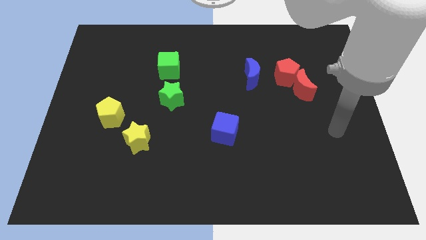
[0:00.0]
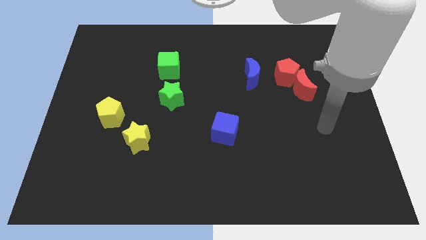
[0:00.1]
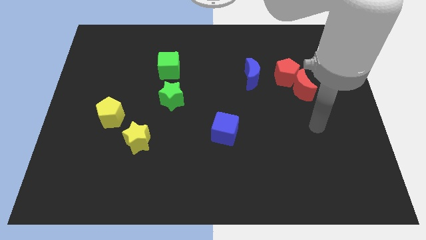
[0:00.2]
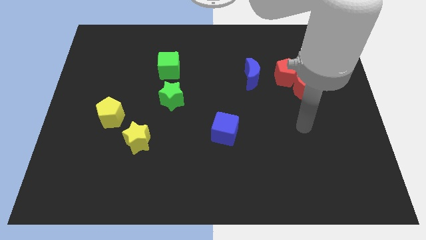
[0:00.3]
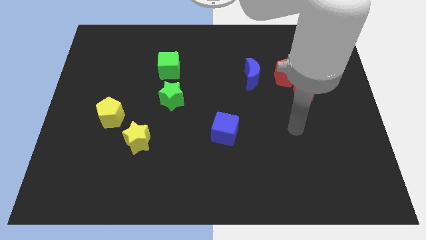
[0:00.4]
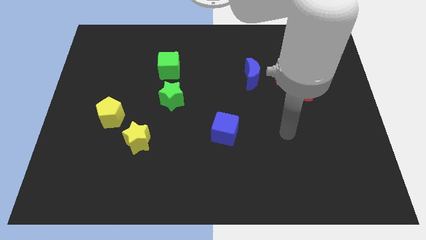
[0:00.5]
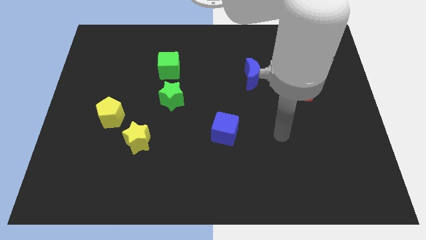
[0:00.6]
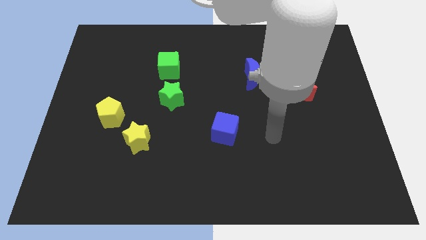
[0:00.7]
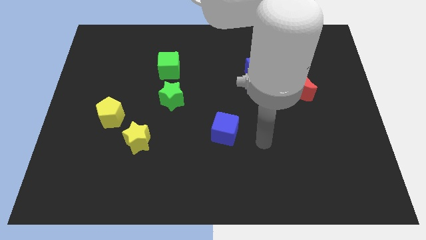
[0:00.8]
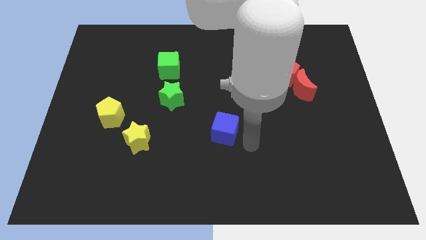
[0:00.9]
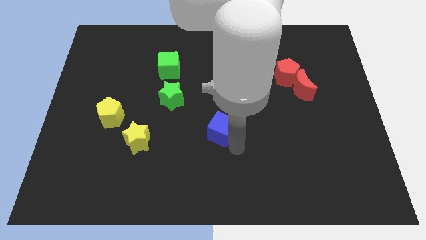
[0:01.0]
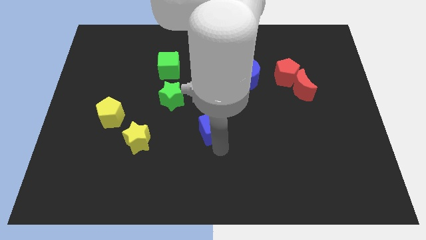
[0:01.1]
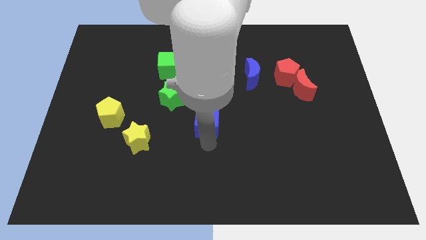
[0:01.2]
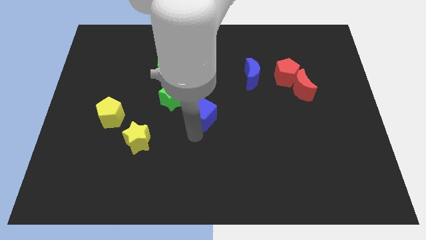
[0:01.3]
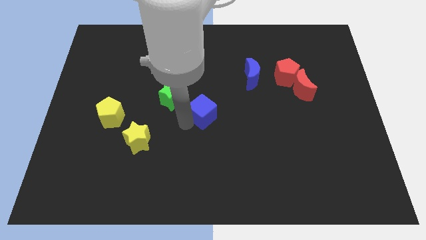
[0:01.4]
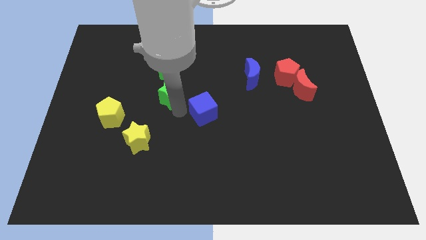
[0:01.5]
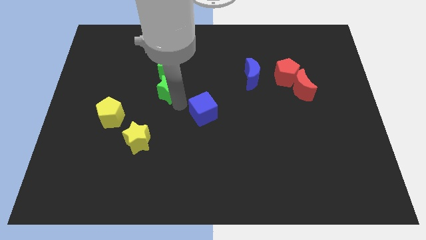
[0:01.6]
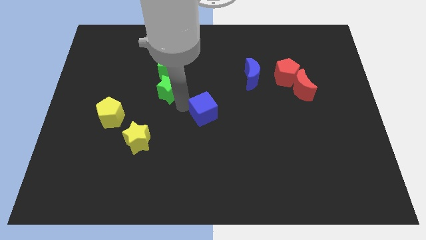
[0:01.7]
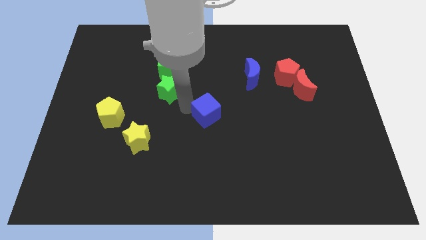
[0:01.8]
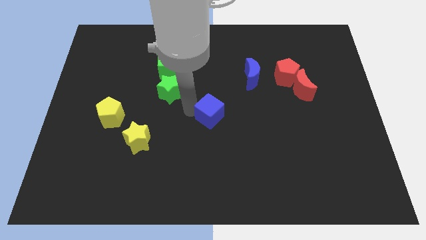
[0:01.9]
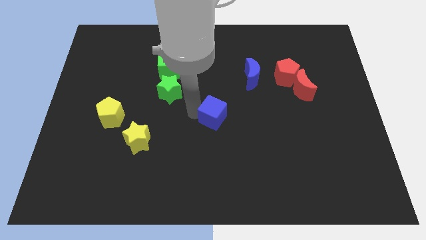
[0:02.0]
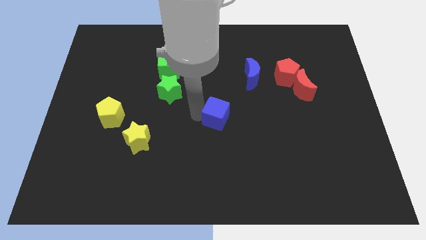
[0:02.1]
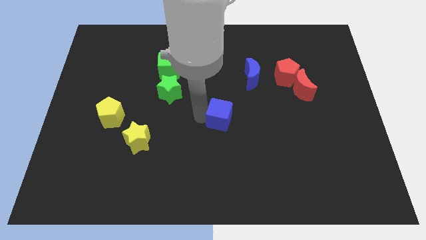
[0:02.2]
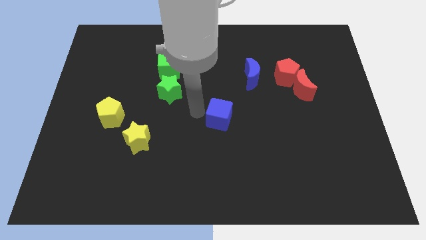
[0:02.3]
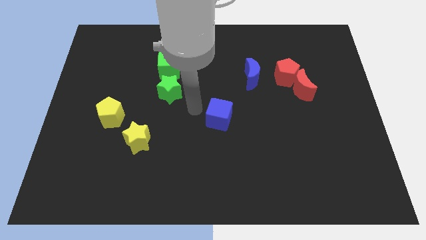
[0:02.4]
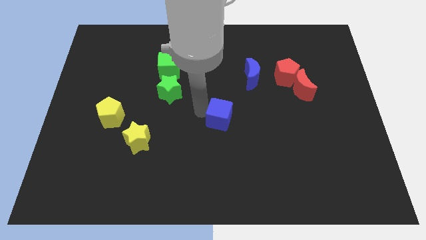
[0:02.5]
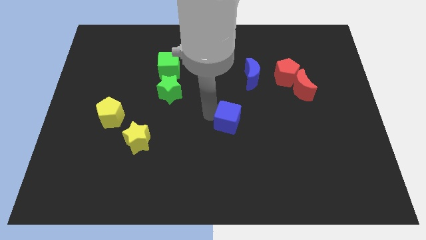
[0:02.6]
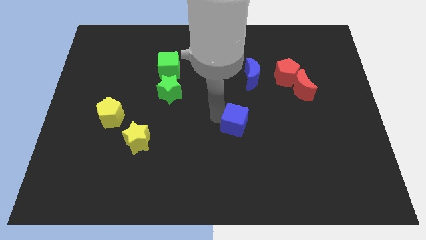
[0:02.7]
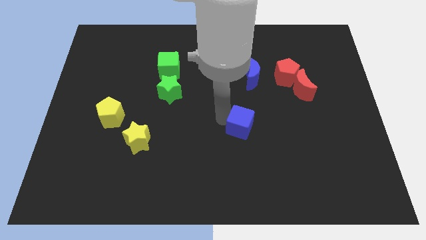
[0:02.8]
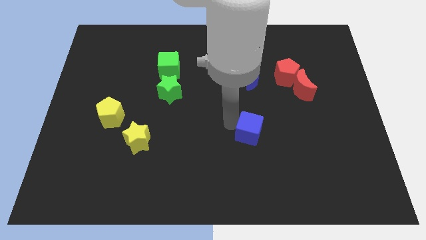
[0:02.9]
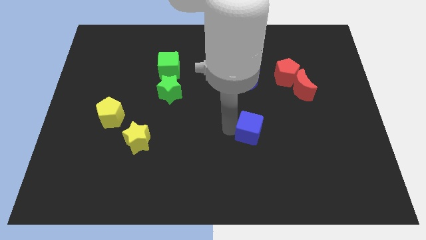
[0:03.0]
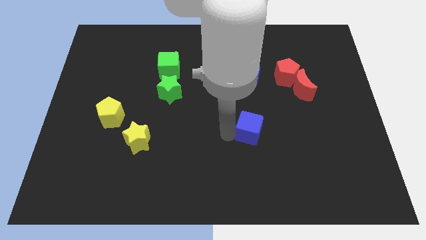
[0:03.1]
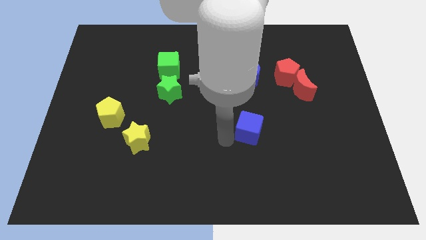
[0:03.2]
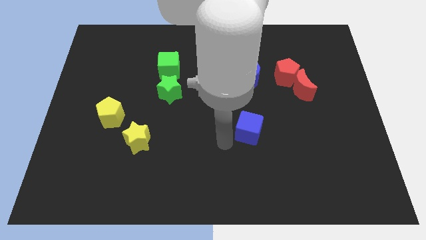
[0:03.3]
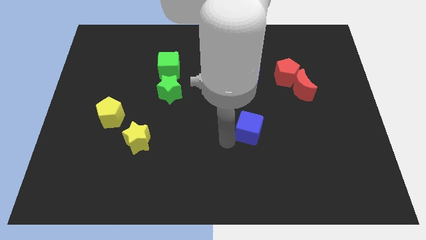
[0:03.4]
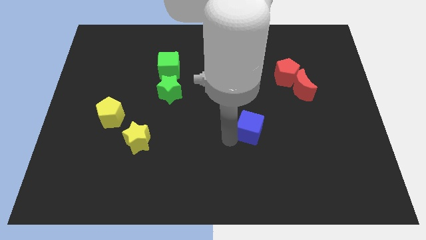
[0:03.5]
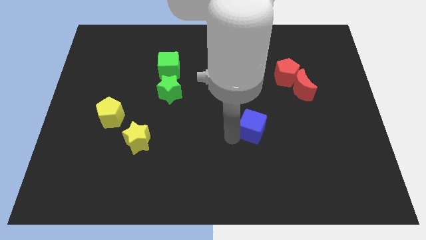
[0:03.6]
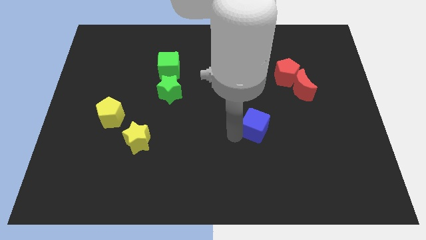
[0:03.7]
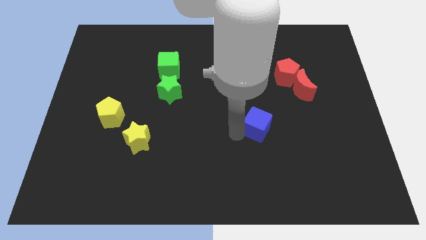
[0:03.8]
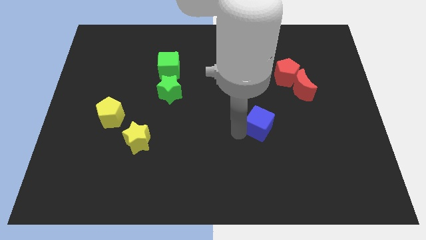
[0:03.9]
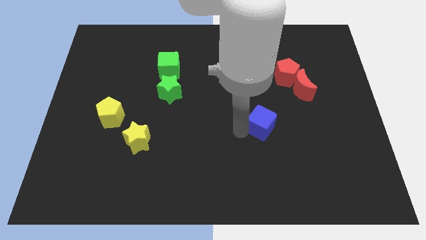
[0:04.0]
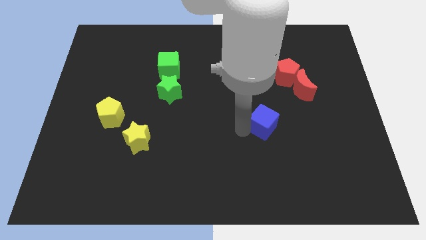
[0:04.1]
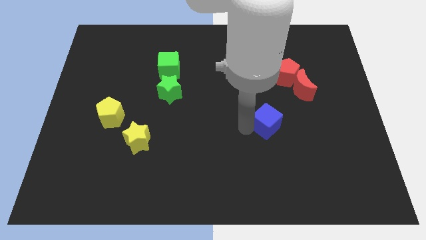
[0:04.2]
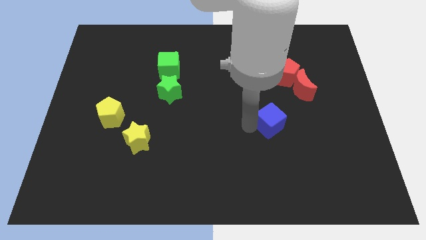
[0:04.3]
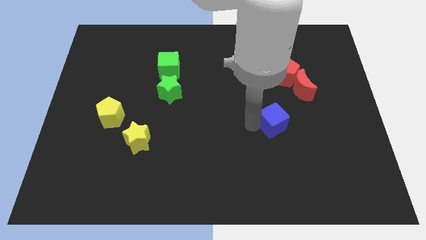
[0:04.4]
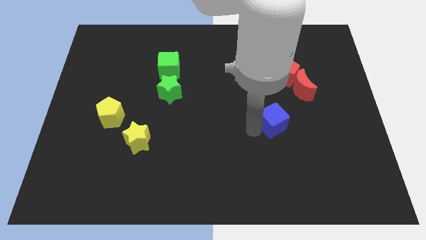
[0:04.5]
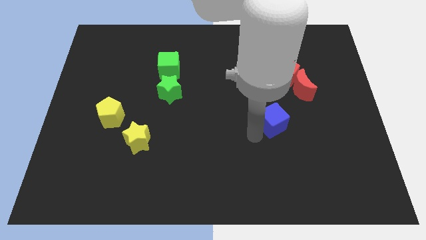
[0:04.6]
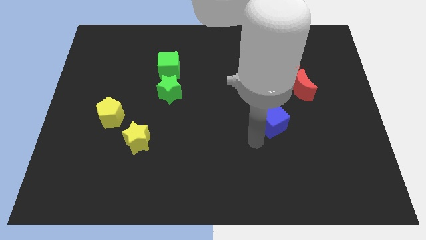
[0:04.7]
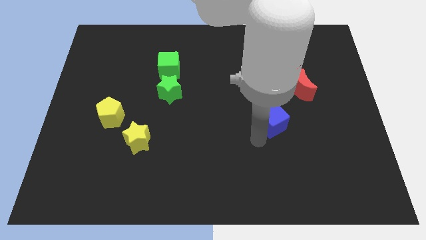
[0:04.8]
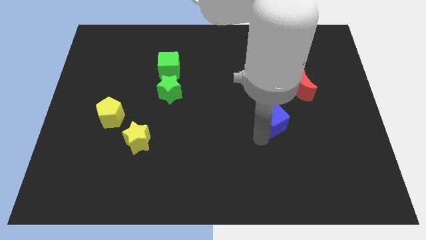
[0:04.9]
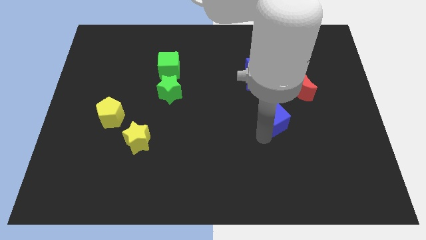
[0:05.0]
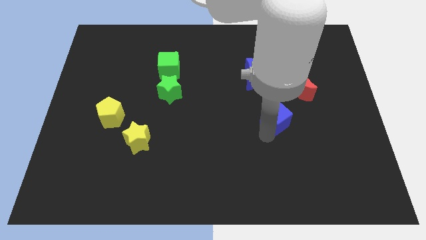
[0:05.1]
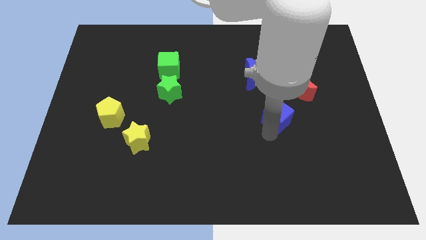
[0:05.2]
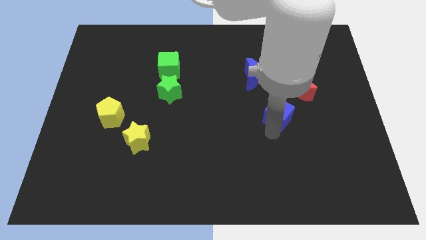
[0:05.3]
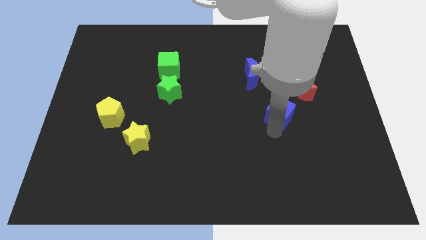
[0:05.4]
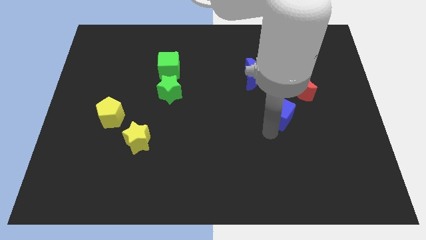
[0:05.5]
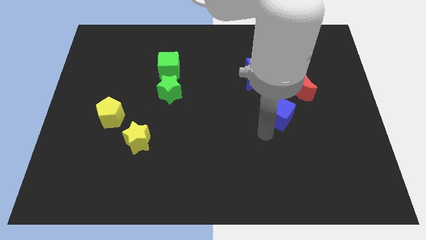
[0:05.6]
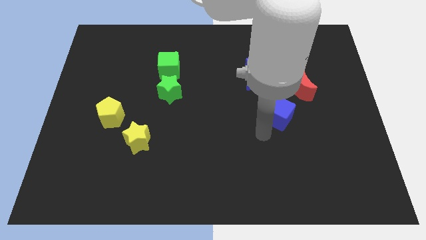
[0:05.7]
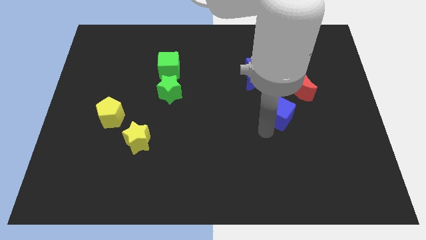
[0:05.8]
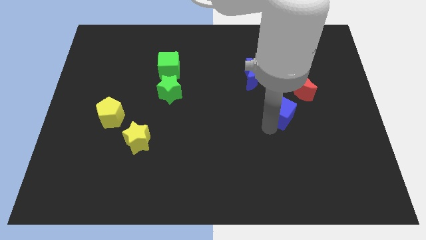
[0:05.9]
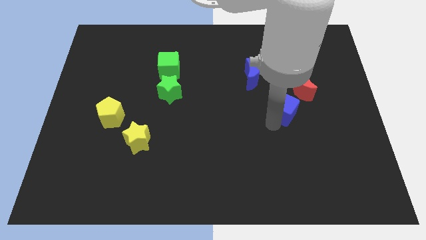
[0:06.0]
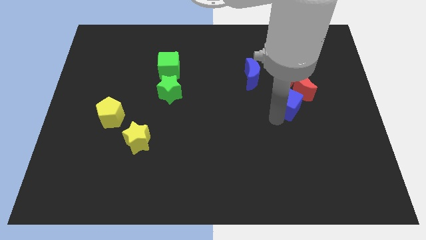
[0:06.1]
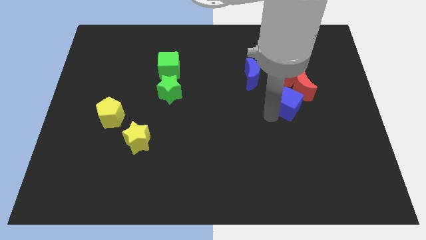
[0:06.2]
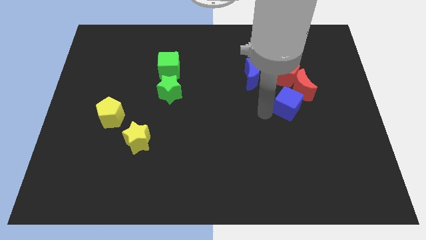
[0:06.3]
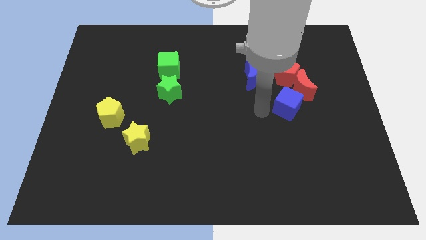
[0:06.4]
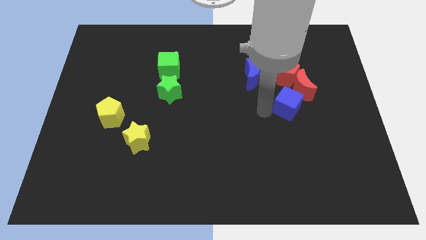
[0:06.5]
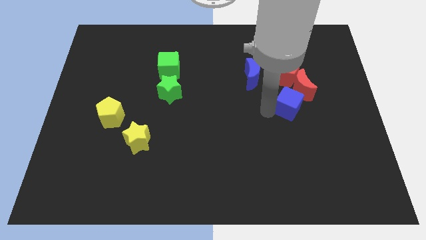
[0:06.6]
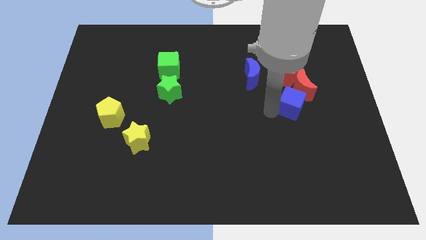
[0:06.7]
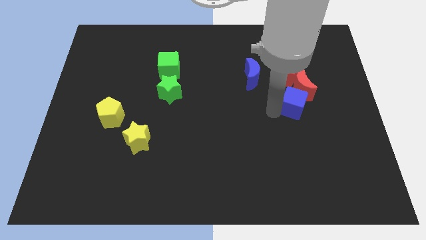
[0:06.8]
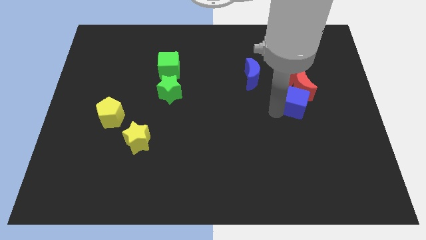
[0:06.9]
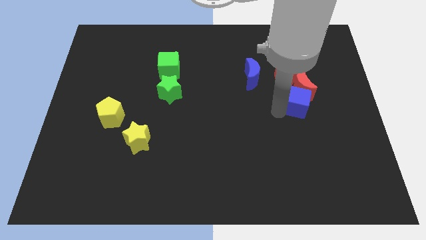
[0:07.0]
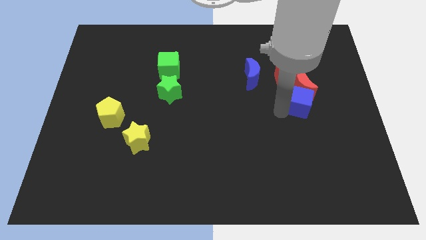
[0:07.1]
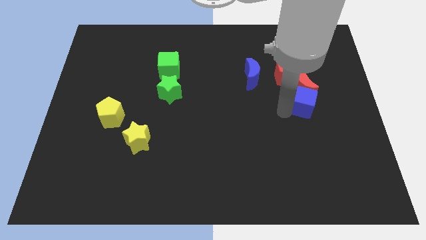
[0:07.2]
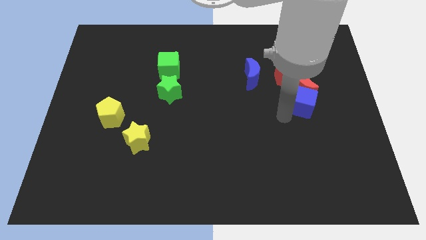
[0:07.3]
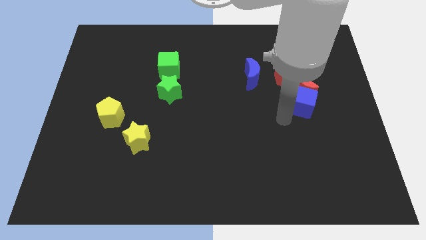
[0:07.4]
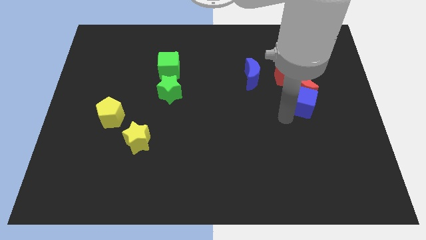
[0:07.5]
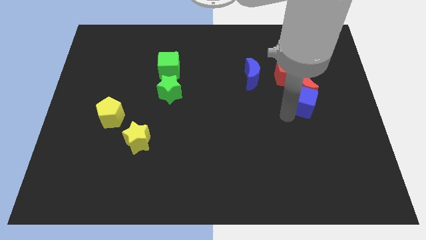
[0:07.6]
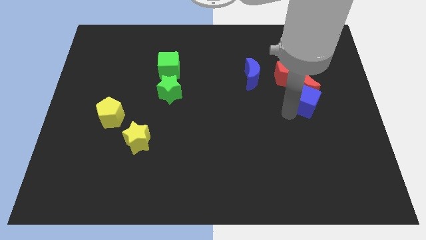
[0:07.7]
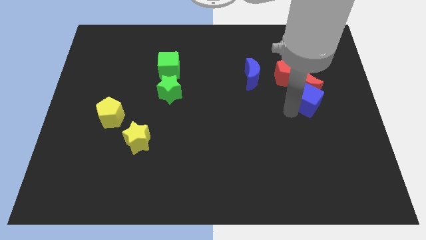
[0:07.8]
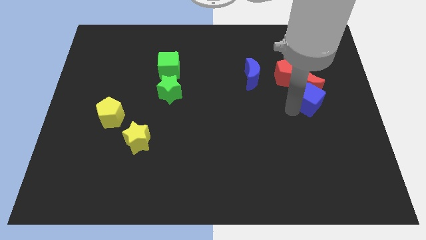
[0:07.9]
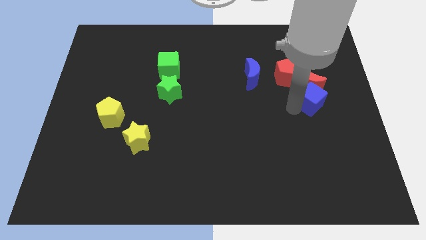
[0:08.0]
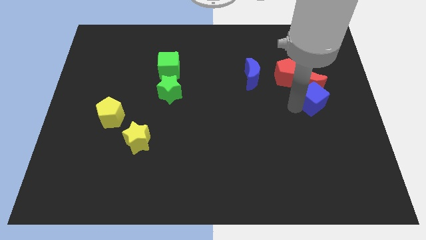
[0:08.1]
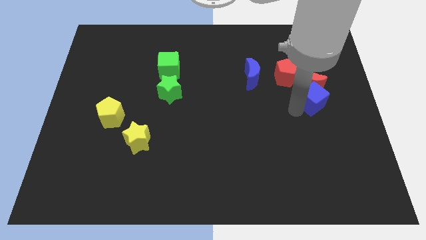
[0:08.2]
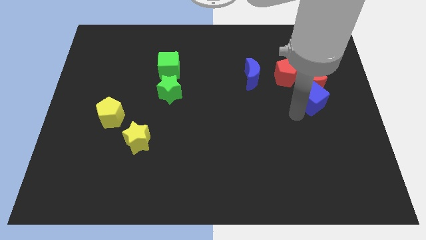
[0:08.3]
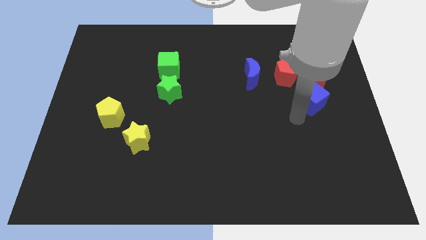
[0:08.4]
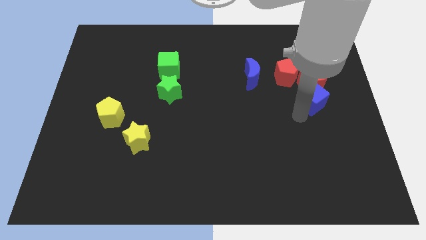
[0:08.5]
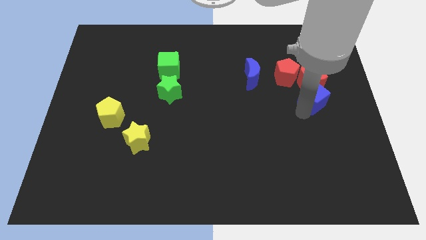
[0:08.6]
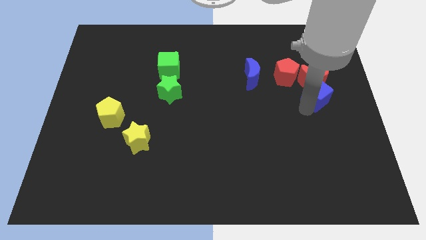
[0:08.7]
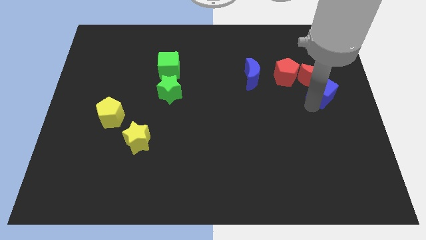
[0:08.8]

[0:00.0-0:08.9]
push the blue cube upwards and right diagonally
